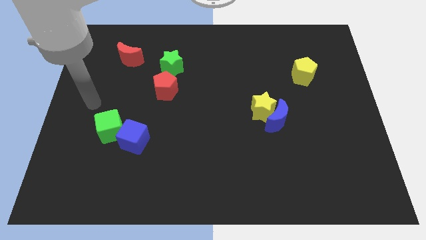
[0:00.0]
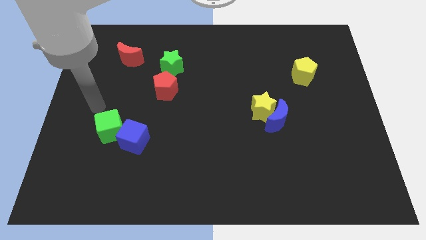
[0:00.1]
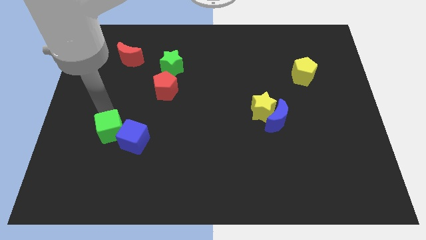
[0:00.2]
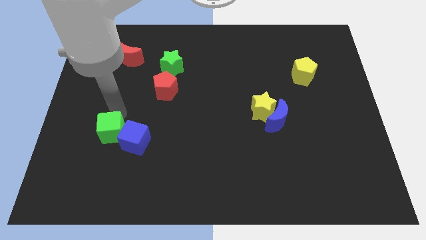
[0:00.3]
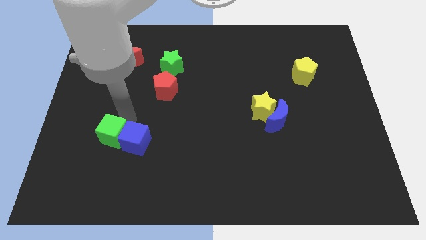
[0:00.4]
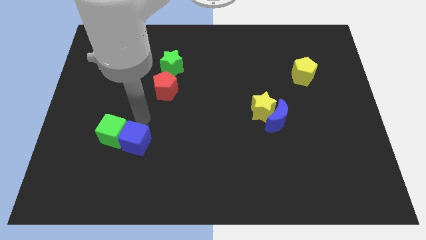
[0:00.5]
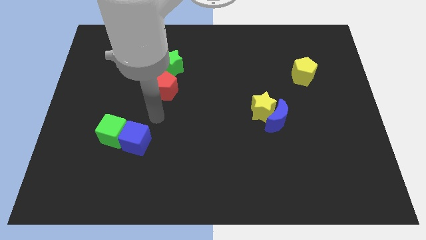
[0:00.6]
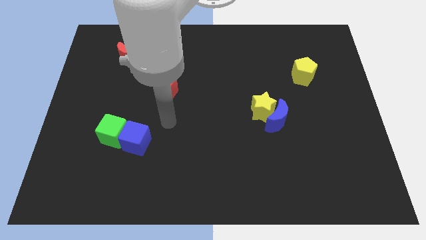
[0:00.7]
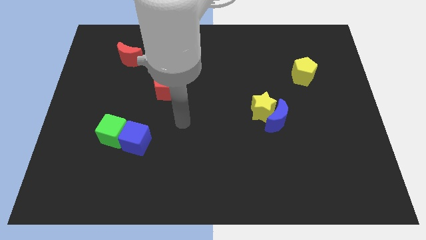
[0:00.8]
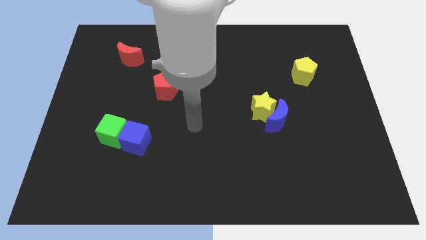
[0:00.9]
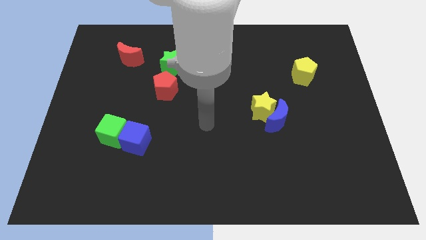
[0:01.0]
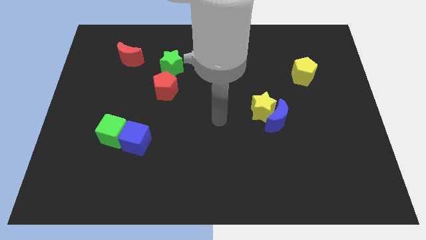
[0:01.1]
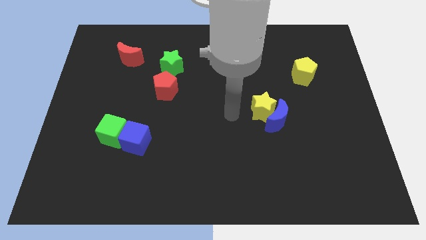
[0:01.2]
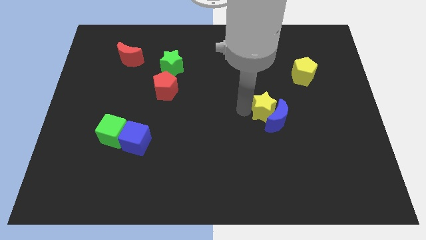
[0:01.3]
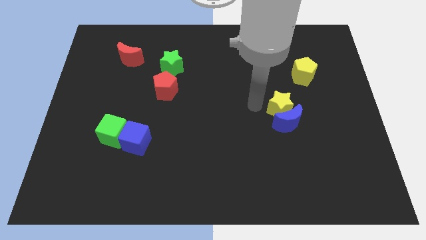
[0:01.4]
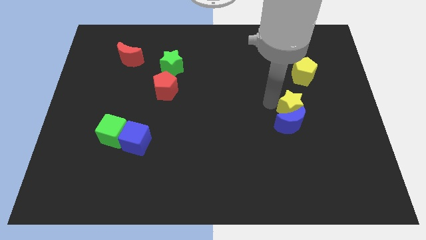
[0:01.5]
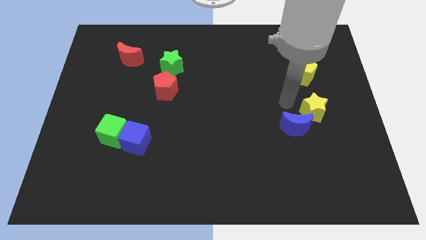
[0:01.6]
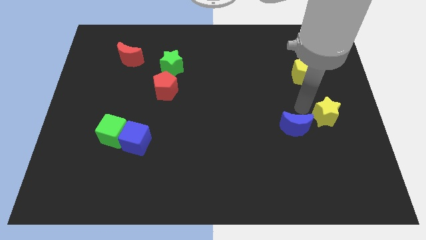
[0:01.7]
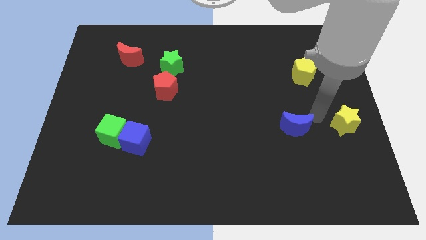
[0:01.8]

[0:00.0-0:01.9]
pull the blue moon apart from the yellow star

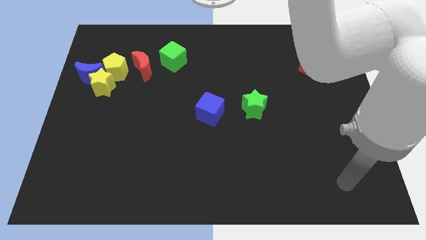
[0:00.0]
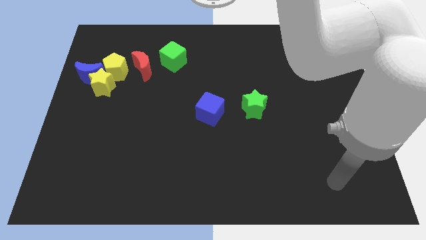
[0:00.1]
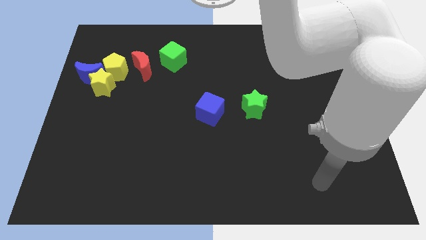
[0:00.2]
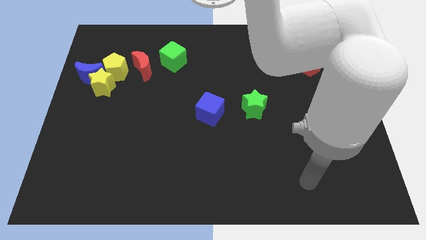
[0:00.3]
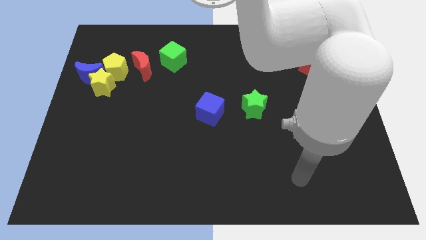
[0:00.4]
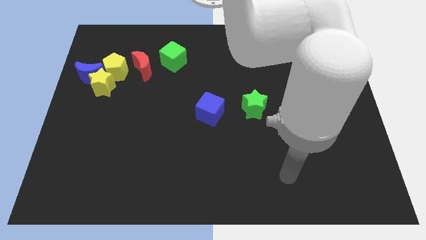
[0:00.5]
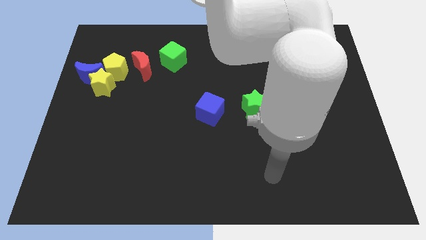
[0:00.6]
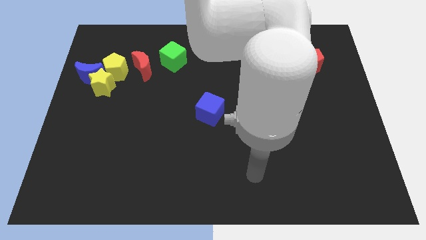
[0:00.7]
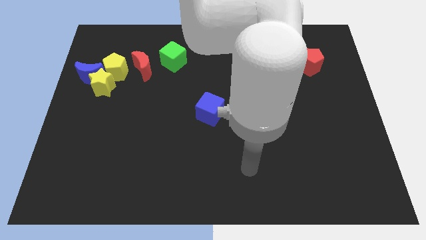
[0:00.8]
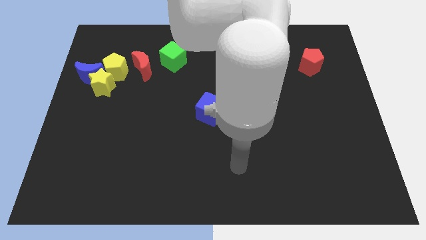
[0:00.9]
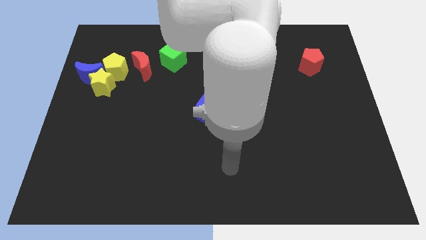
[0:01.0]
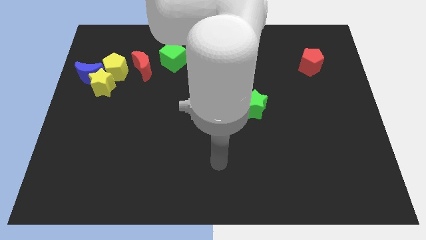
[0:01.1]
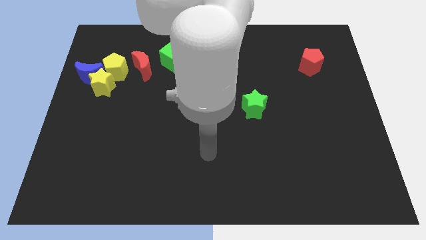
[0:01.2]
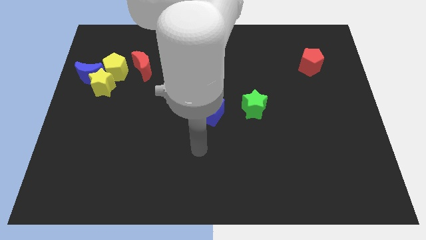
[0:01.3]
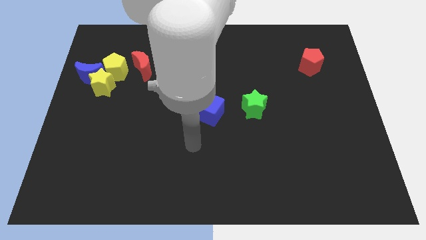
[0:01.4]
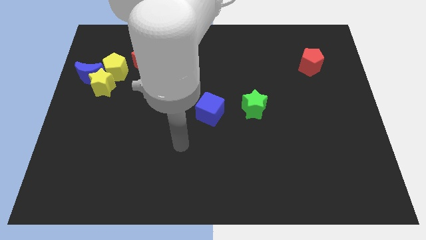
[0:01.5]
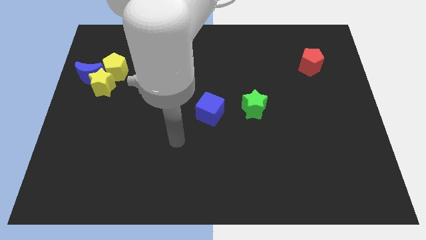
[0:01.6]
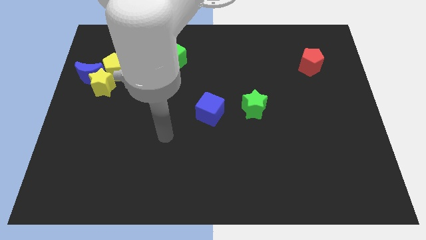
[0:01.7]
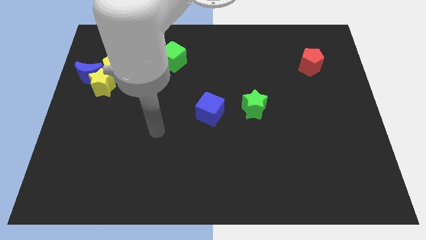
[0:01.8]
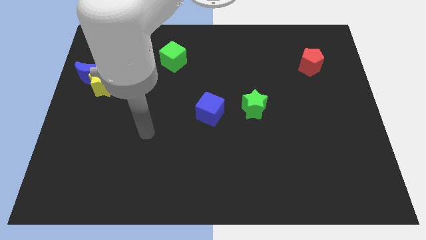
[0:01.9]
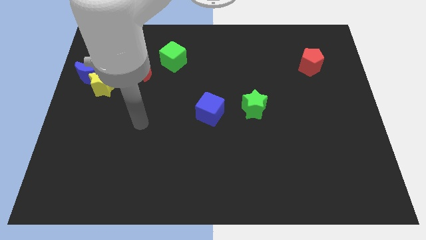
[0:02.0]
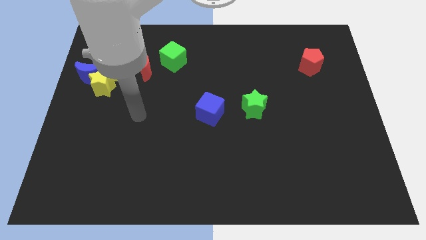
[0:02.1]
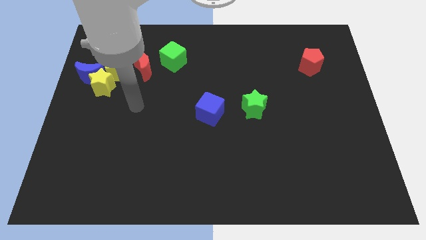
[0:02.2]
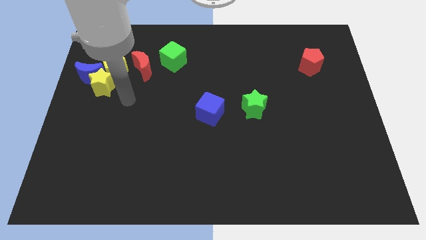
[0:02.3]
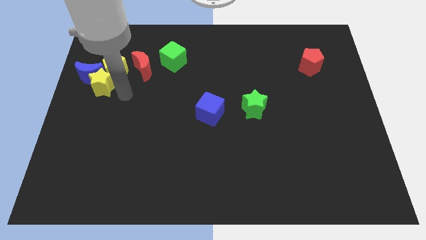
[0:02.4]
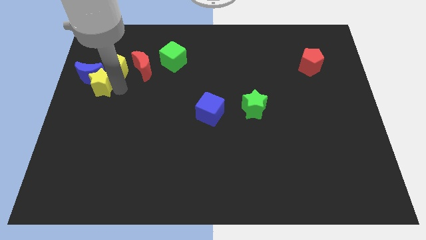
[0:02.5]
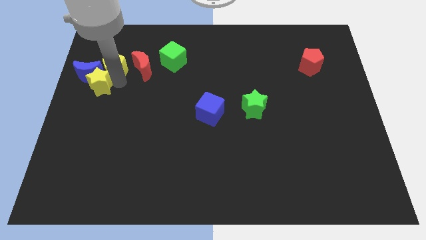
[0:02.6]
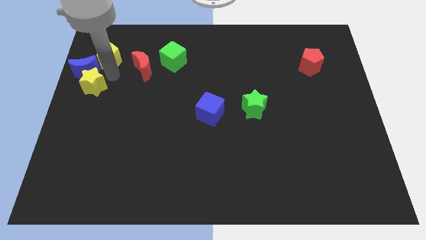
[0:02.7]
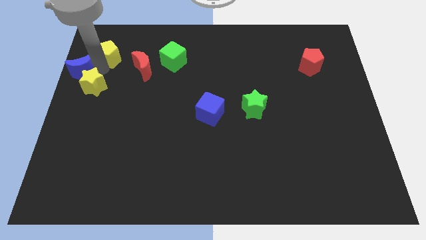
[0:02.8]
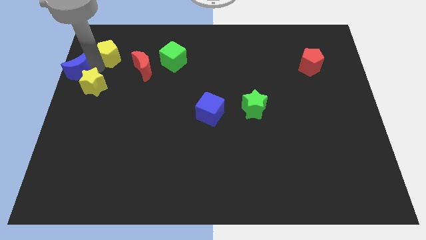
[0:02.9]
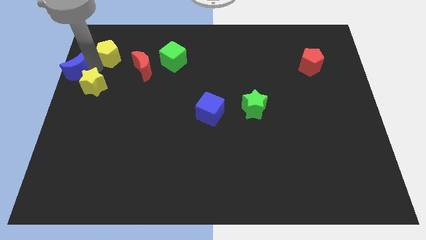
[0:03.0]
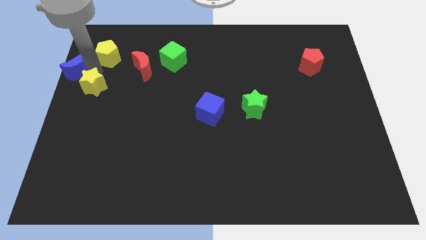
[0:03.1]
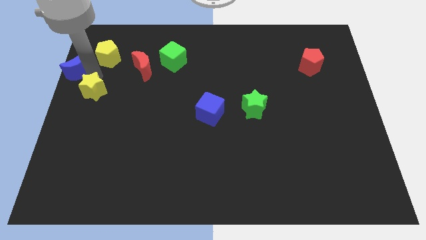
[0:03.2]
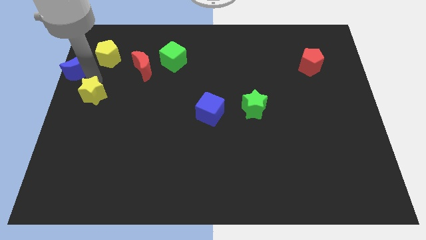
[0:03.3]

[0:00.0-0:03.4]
move the yellow star away from the blue moon and yellow pentagon

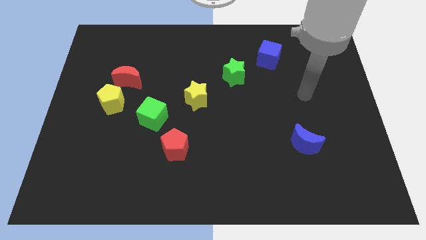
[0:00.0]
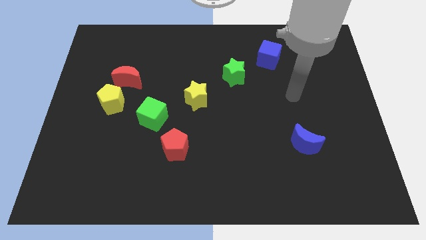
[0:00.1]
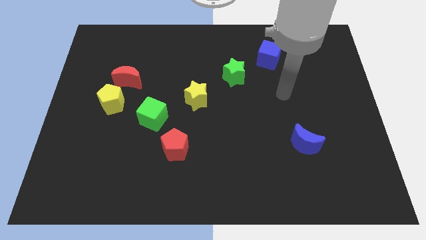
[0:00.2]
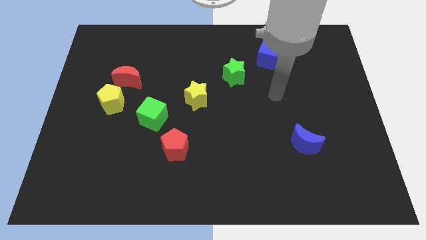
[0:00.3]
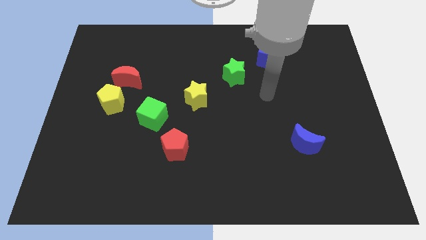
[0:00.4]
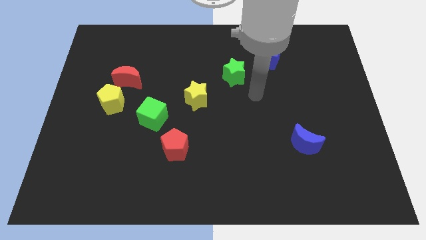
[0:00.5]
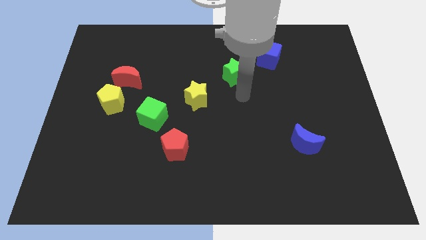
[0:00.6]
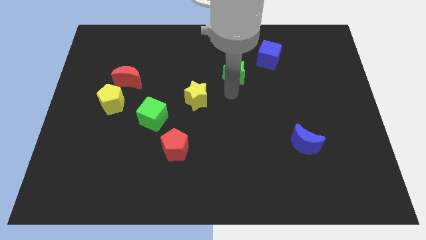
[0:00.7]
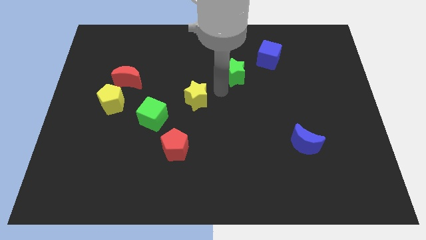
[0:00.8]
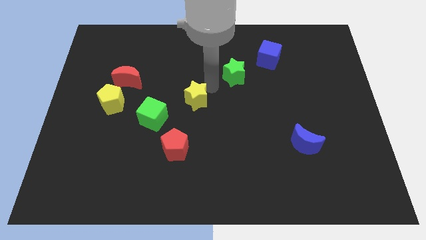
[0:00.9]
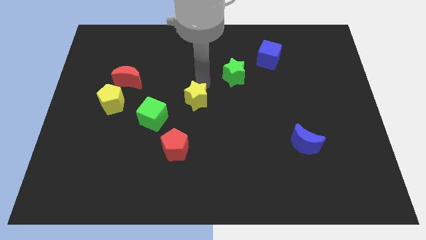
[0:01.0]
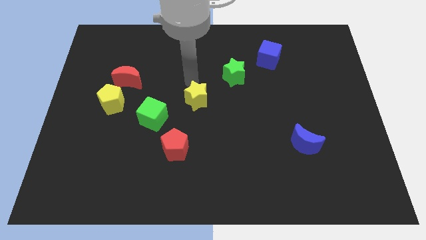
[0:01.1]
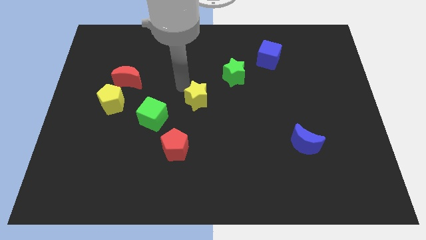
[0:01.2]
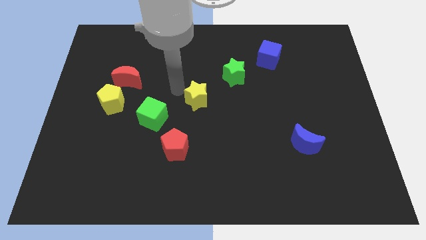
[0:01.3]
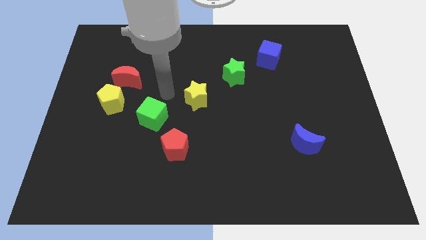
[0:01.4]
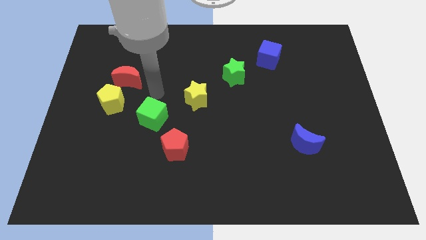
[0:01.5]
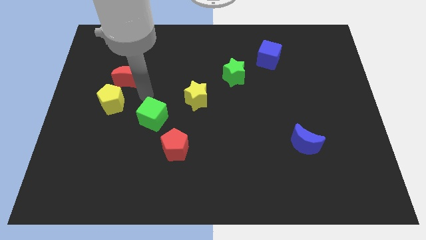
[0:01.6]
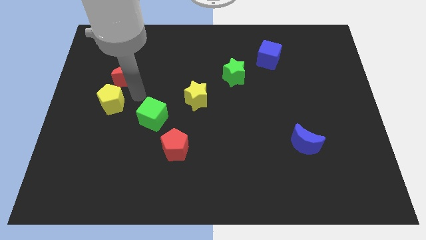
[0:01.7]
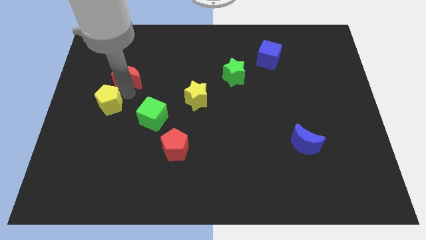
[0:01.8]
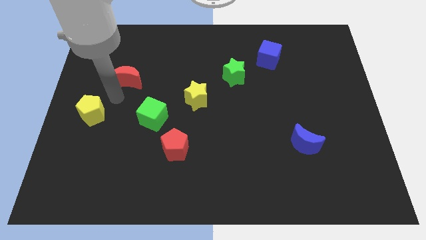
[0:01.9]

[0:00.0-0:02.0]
separate the red moon from the yellow pentagon

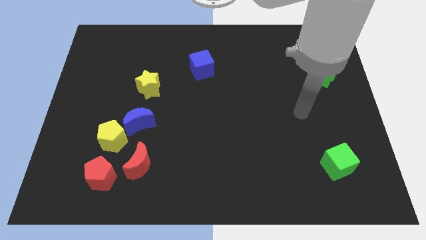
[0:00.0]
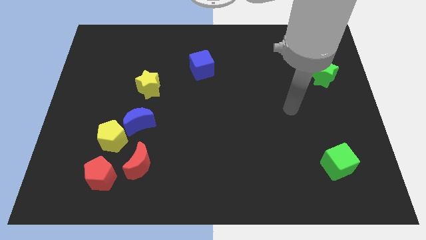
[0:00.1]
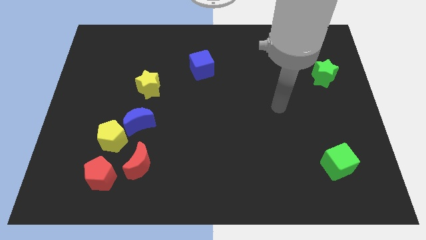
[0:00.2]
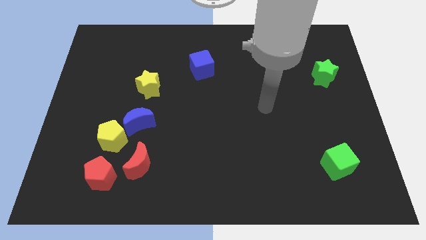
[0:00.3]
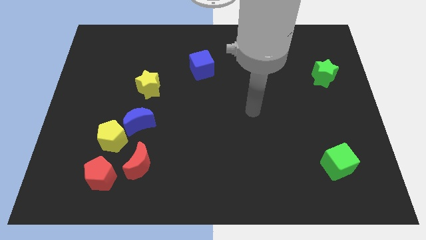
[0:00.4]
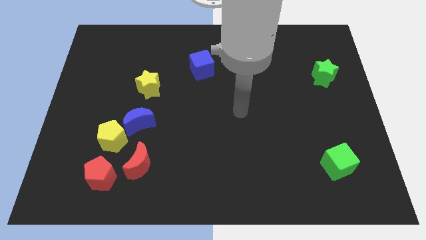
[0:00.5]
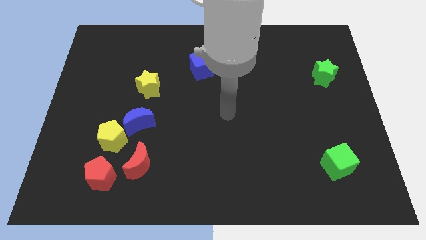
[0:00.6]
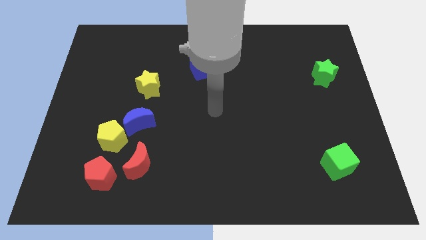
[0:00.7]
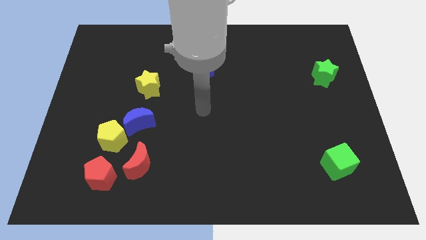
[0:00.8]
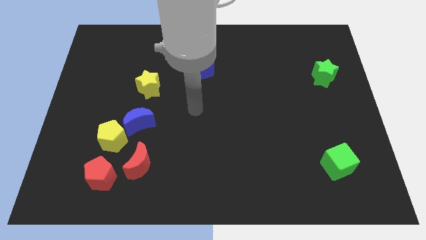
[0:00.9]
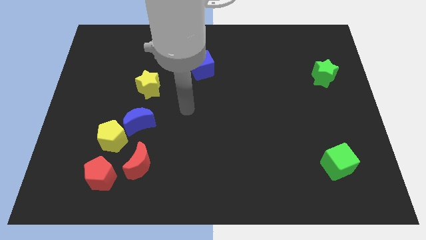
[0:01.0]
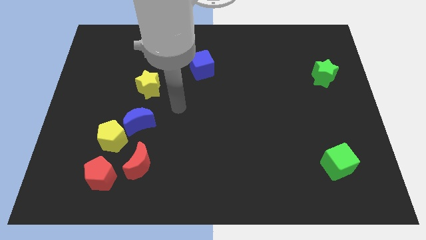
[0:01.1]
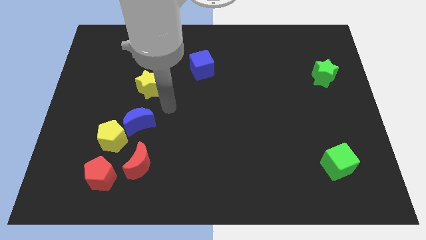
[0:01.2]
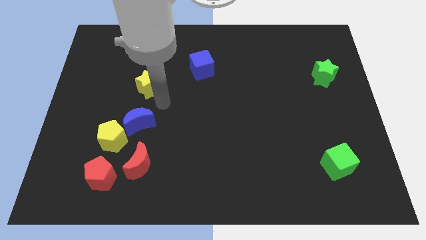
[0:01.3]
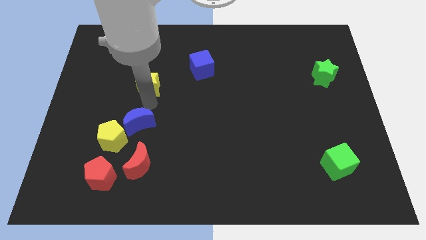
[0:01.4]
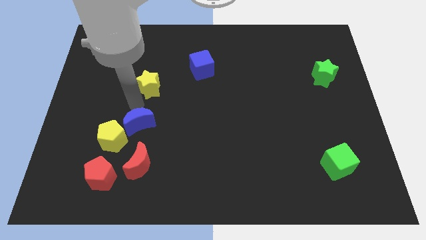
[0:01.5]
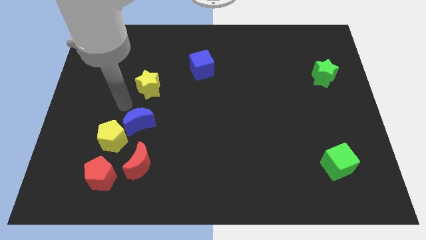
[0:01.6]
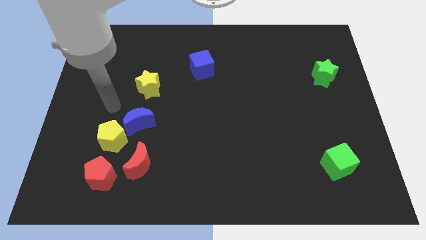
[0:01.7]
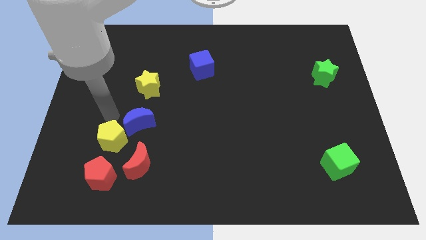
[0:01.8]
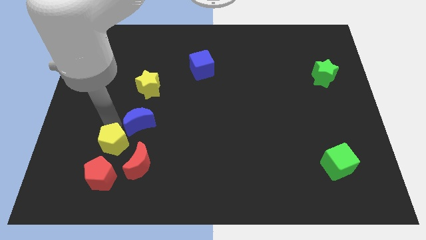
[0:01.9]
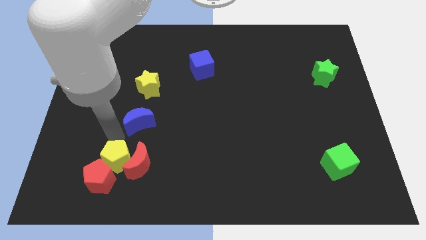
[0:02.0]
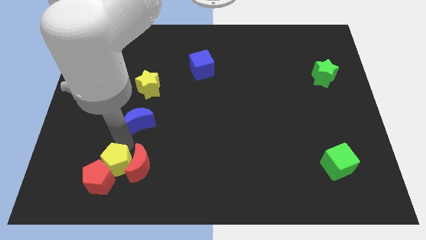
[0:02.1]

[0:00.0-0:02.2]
move the blue moon away from the yellow pentagon
